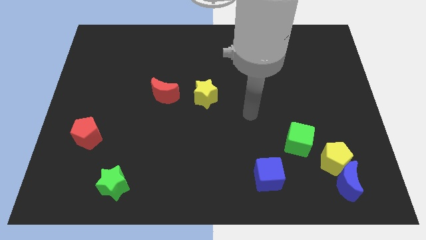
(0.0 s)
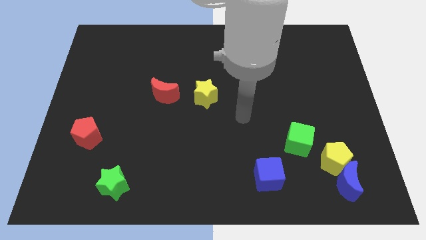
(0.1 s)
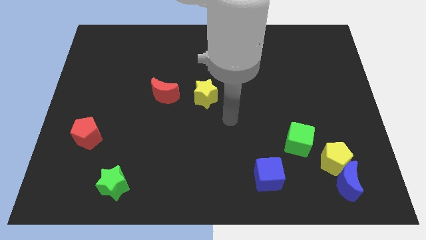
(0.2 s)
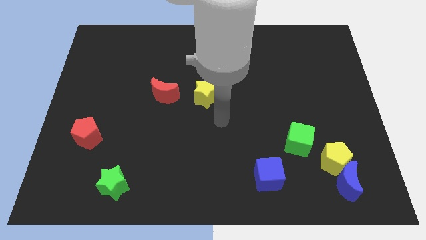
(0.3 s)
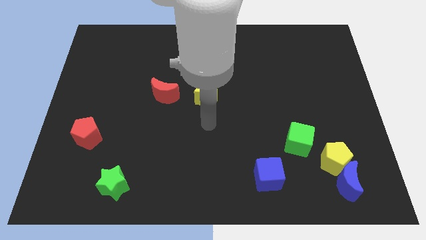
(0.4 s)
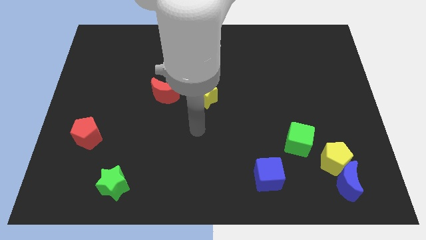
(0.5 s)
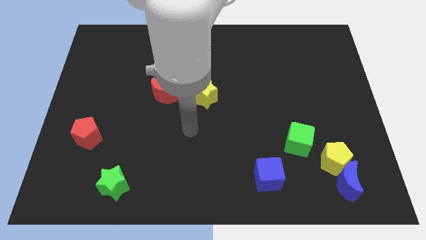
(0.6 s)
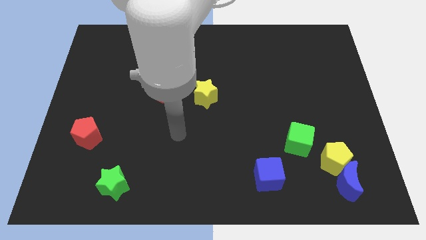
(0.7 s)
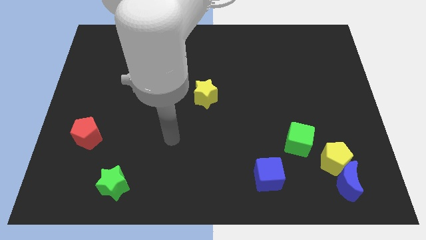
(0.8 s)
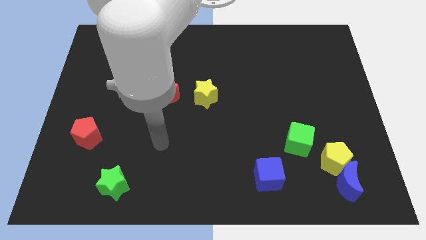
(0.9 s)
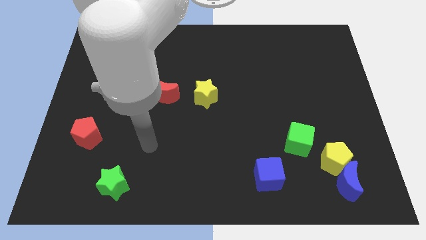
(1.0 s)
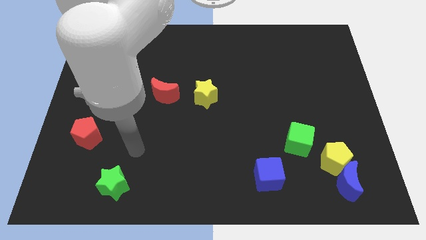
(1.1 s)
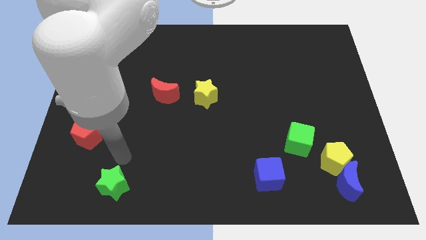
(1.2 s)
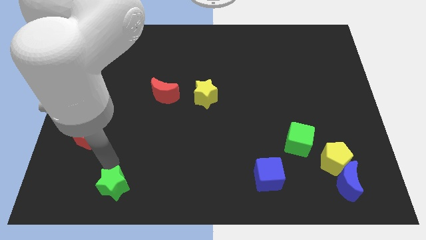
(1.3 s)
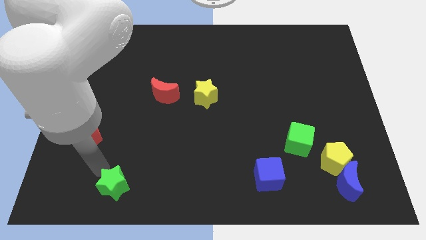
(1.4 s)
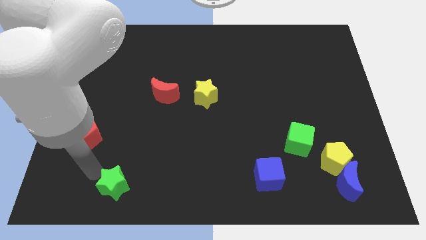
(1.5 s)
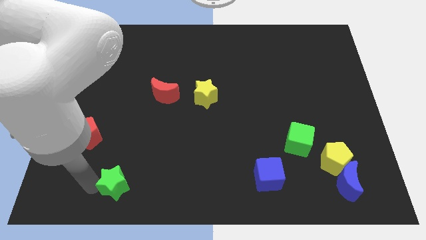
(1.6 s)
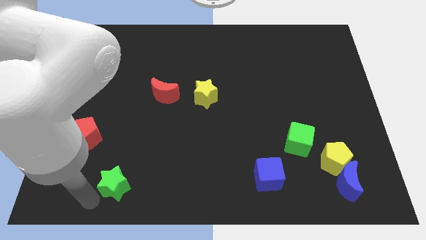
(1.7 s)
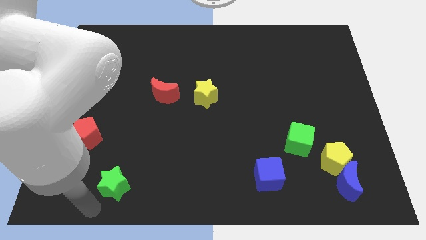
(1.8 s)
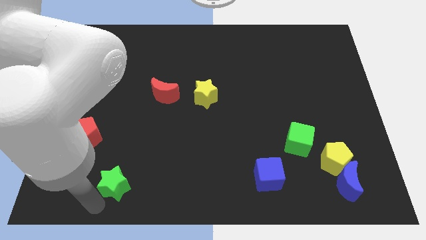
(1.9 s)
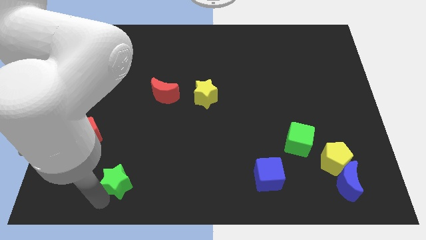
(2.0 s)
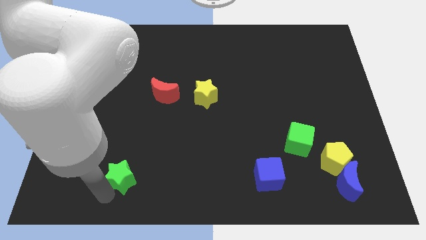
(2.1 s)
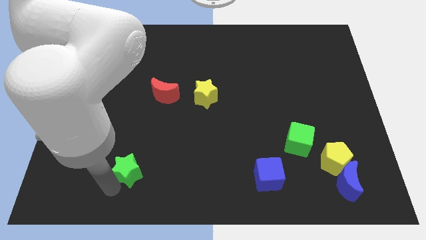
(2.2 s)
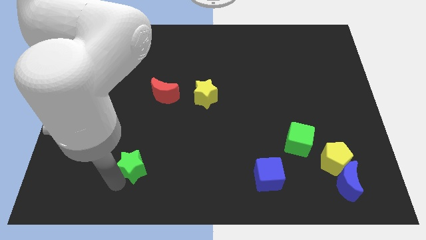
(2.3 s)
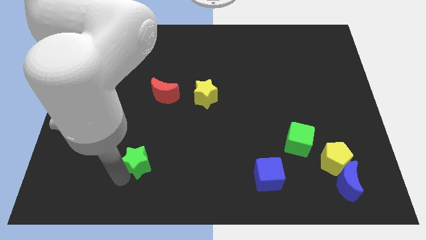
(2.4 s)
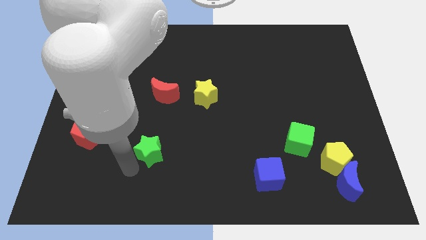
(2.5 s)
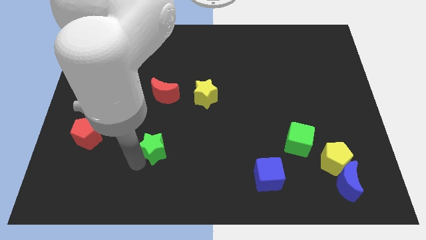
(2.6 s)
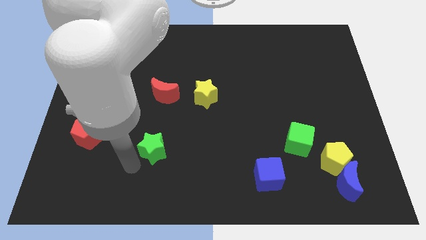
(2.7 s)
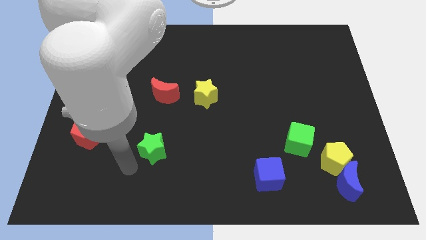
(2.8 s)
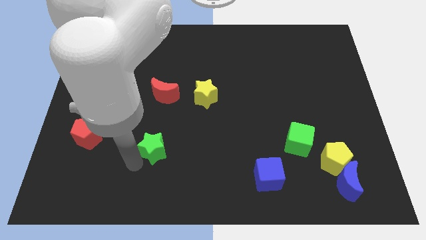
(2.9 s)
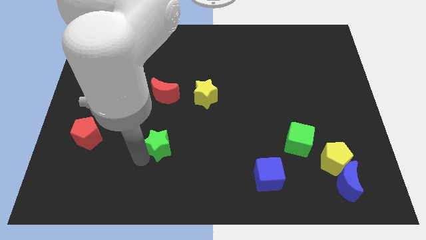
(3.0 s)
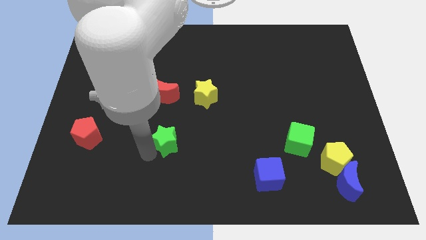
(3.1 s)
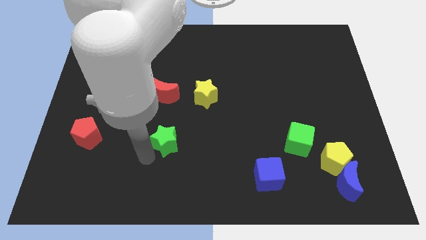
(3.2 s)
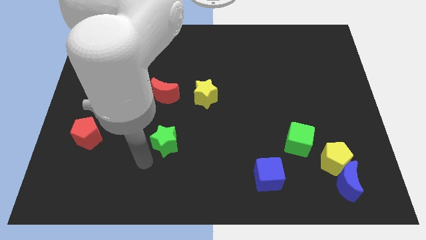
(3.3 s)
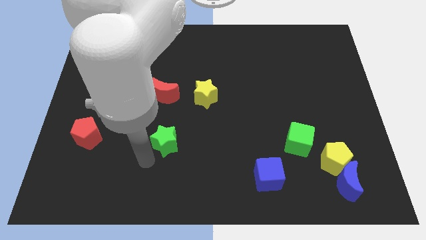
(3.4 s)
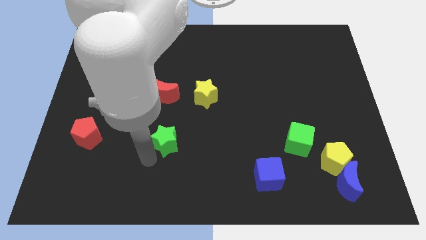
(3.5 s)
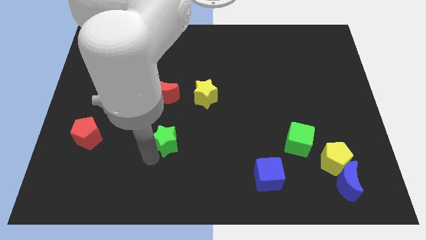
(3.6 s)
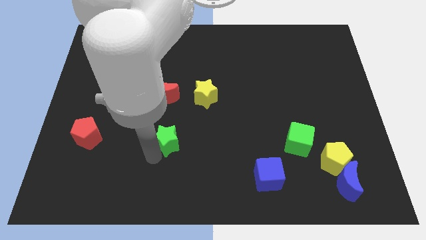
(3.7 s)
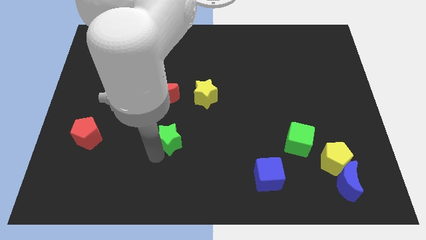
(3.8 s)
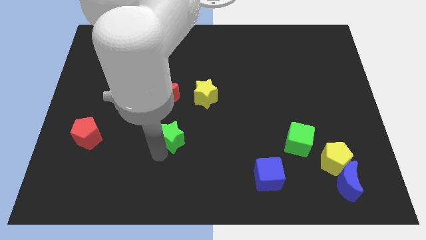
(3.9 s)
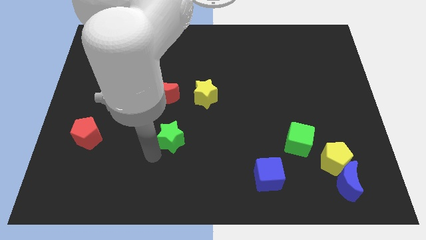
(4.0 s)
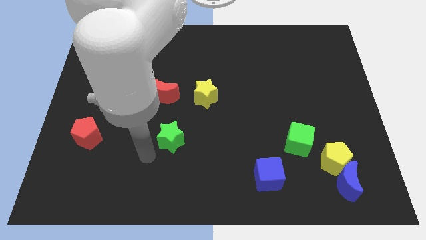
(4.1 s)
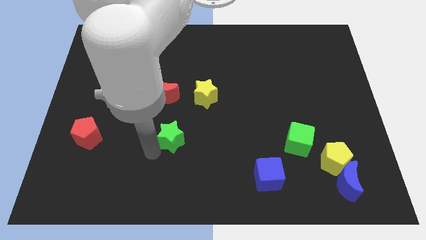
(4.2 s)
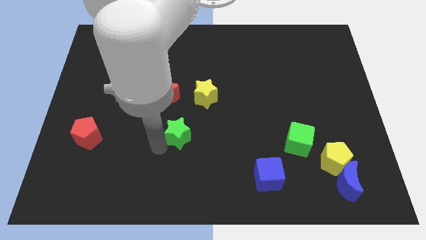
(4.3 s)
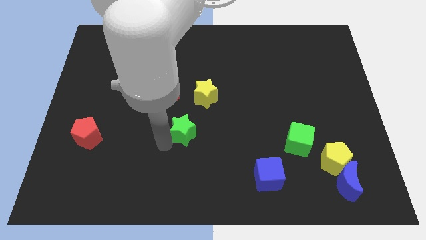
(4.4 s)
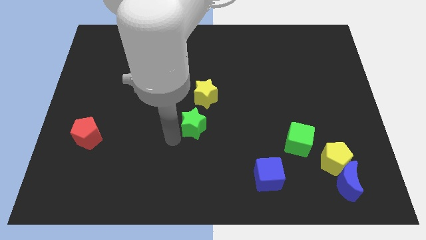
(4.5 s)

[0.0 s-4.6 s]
slide the green star up and right diagonally

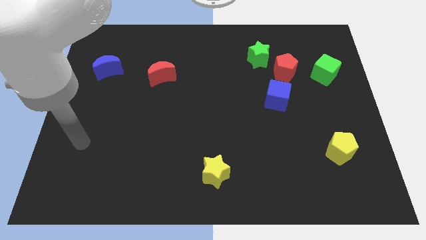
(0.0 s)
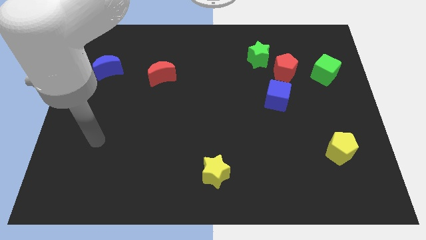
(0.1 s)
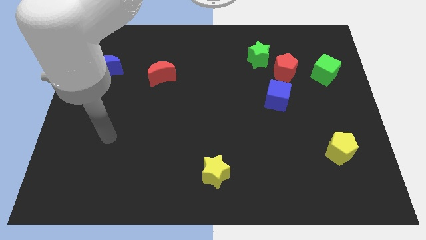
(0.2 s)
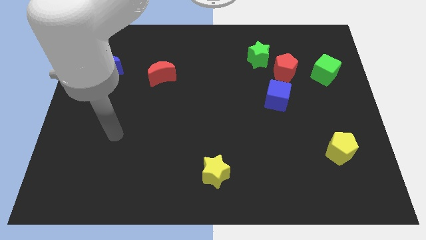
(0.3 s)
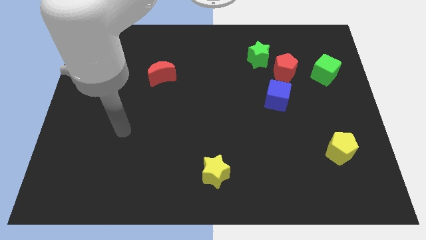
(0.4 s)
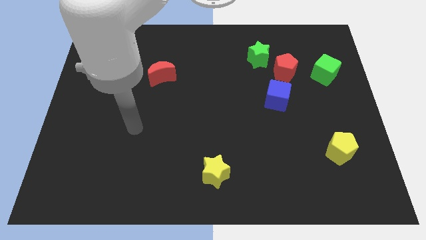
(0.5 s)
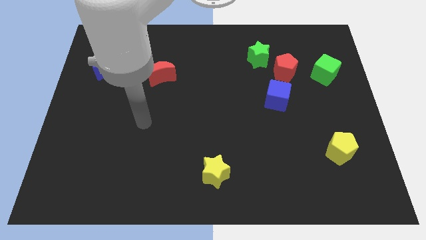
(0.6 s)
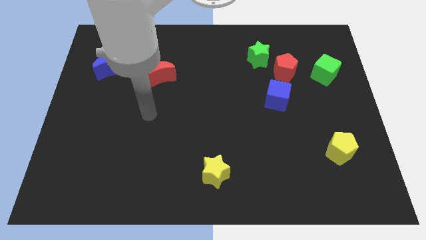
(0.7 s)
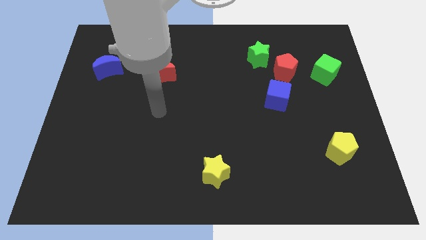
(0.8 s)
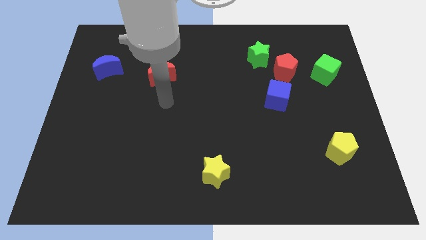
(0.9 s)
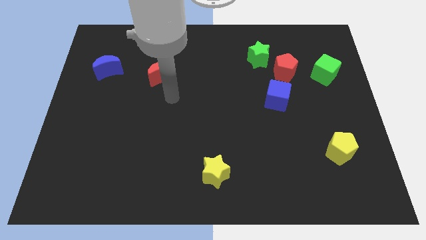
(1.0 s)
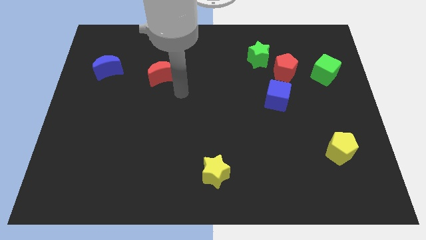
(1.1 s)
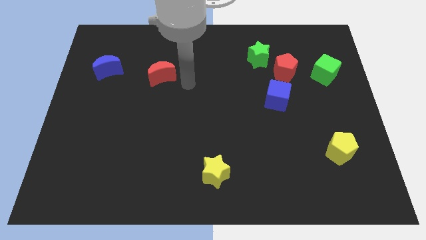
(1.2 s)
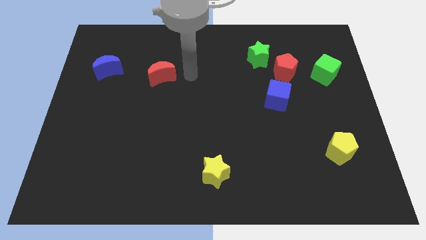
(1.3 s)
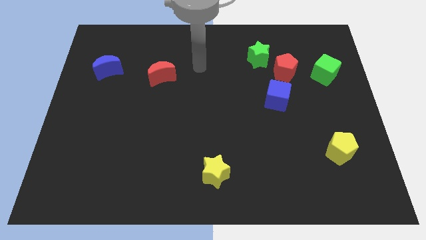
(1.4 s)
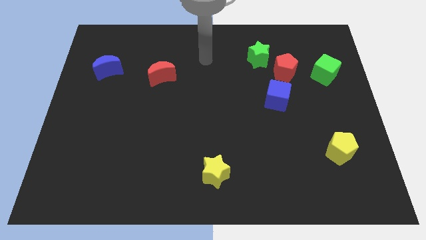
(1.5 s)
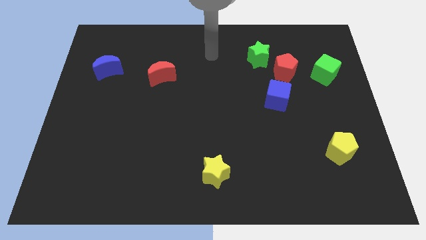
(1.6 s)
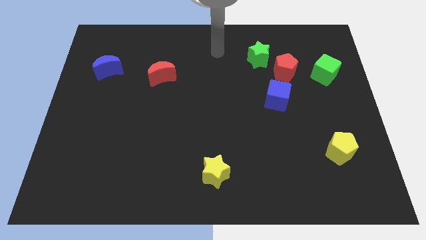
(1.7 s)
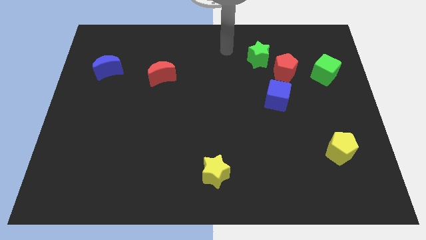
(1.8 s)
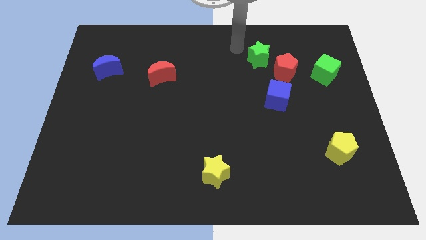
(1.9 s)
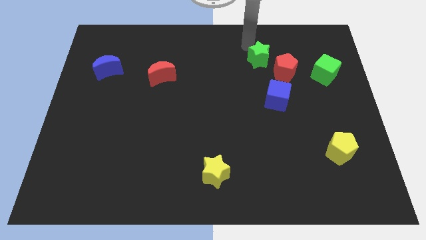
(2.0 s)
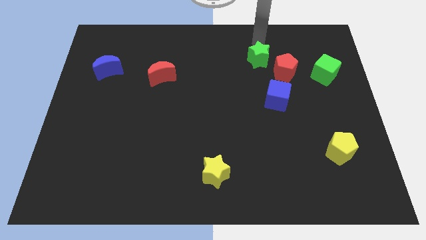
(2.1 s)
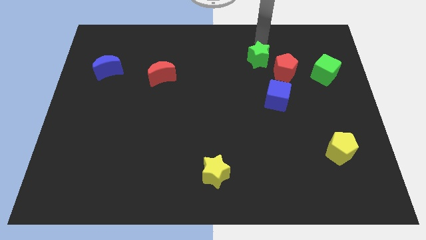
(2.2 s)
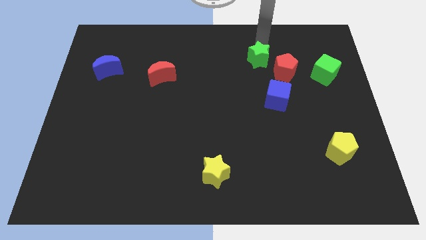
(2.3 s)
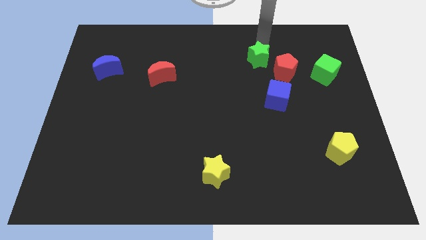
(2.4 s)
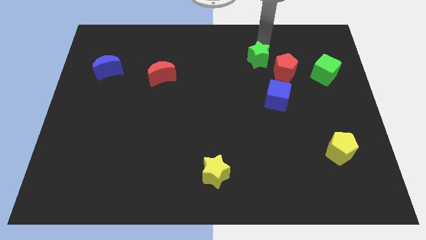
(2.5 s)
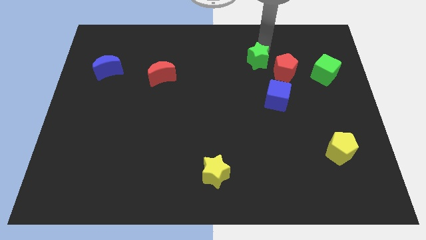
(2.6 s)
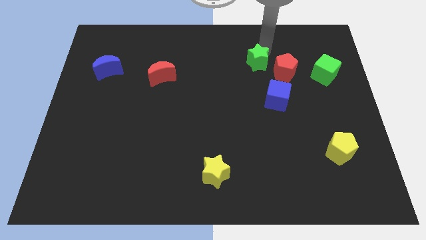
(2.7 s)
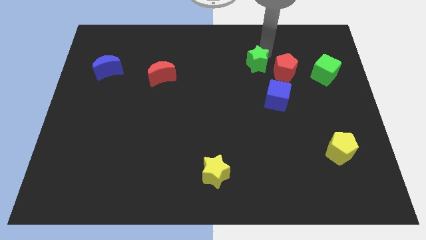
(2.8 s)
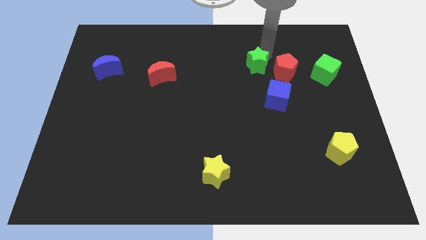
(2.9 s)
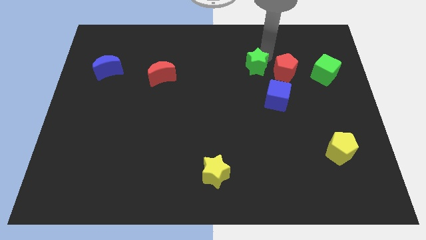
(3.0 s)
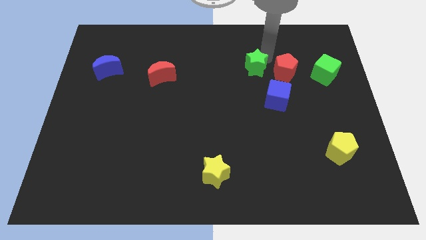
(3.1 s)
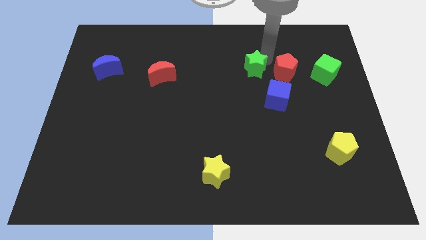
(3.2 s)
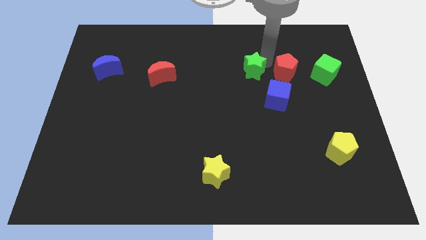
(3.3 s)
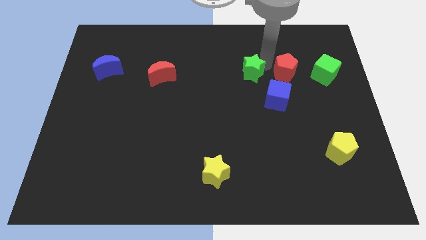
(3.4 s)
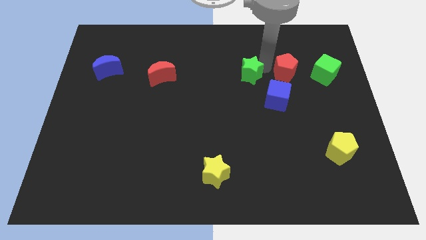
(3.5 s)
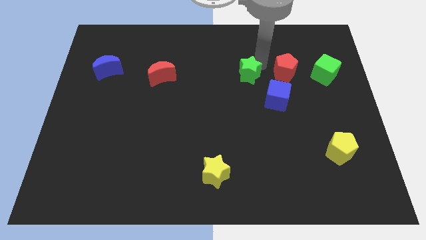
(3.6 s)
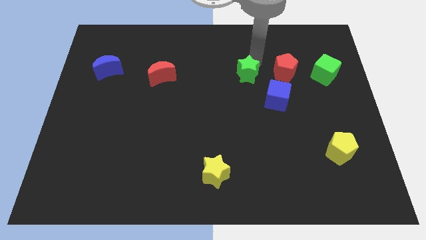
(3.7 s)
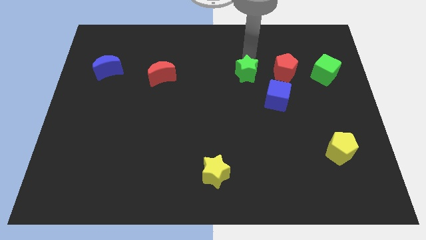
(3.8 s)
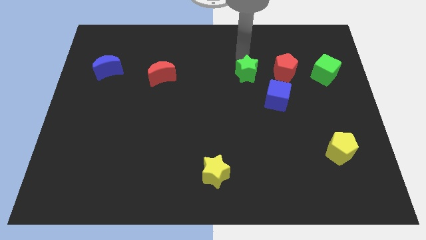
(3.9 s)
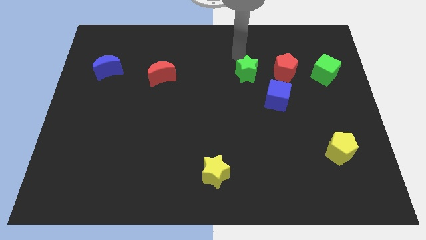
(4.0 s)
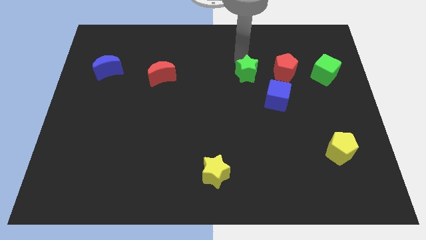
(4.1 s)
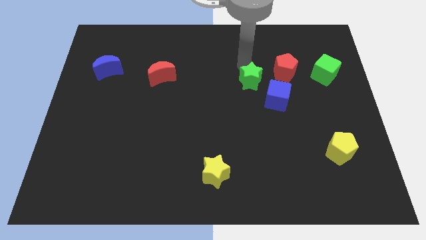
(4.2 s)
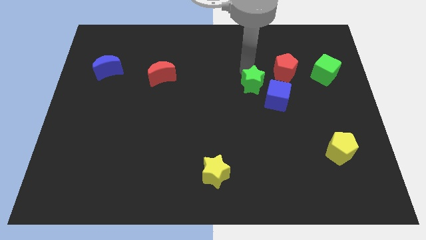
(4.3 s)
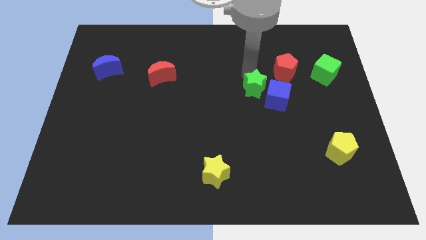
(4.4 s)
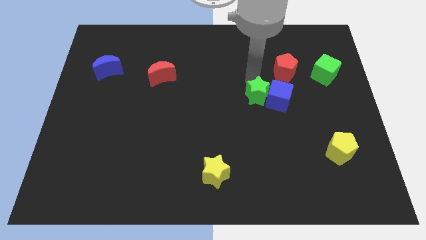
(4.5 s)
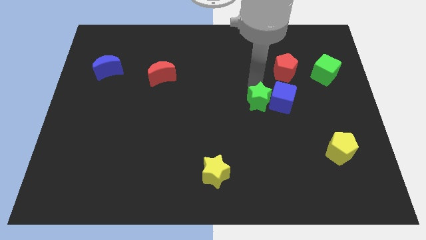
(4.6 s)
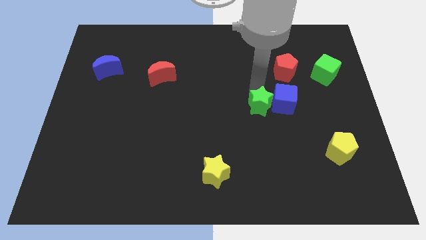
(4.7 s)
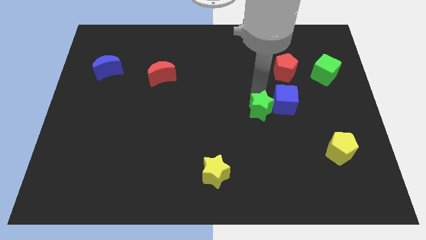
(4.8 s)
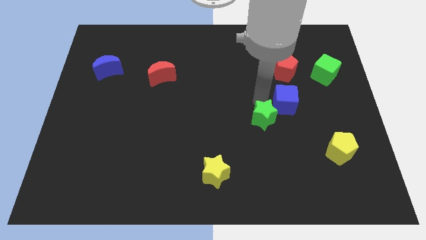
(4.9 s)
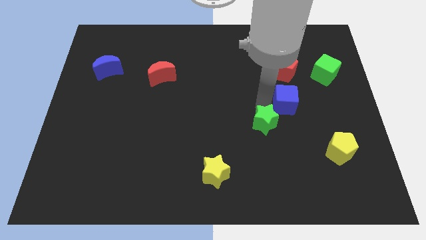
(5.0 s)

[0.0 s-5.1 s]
slide the green star down
